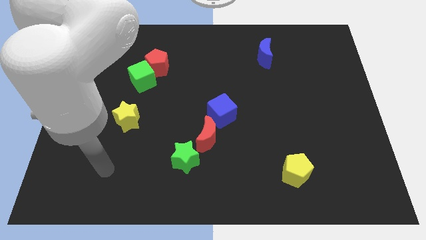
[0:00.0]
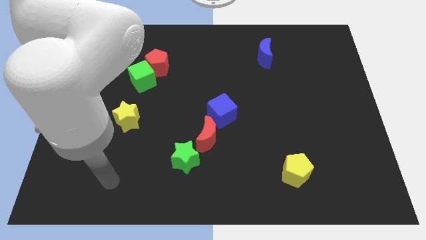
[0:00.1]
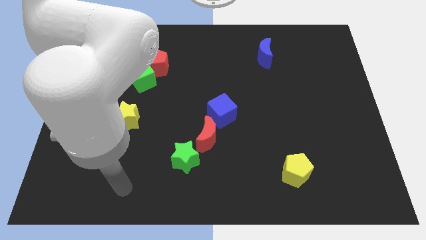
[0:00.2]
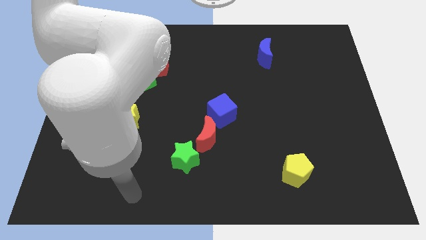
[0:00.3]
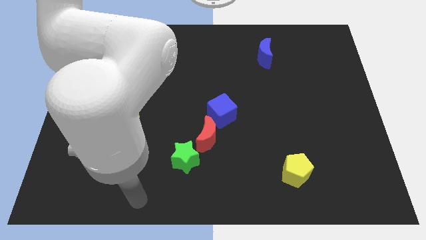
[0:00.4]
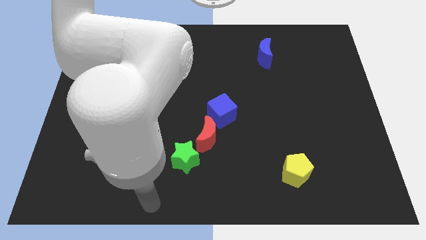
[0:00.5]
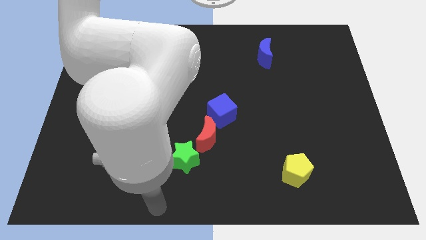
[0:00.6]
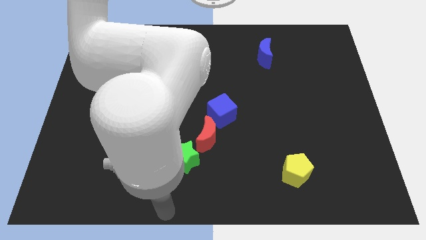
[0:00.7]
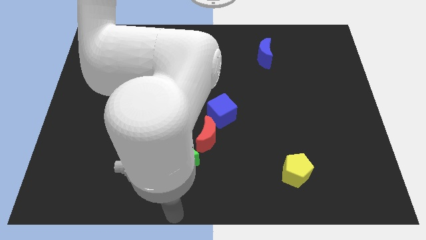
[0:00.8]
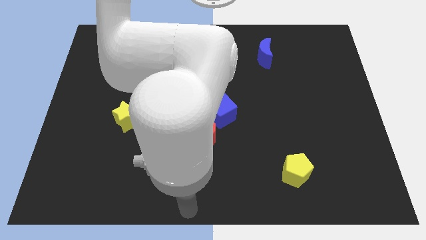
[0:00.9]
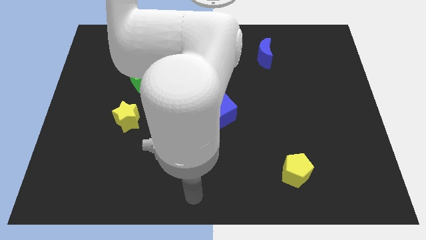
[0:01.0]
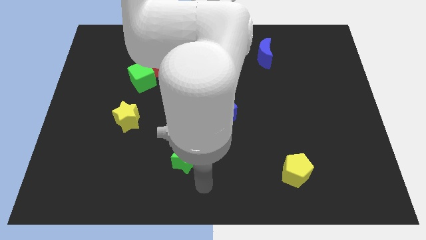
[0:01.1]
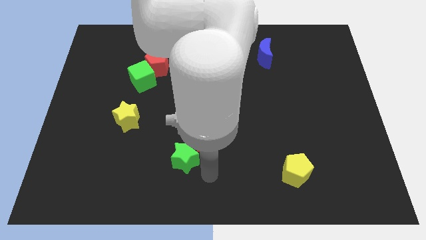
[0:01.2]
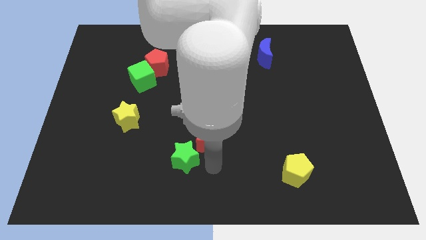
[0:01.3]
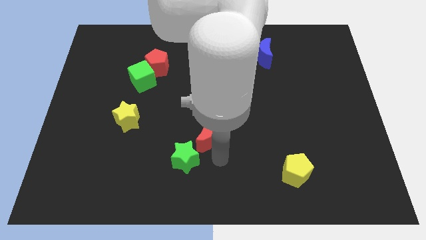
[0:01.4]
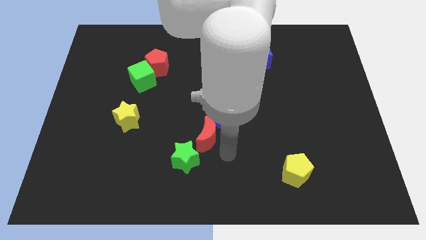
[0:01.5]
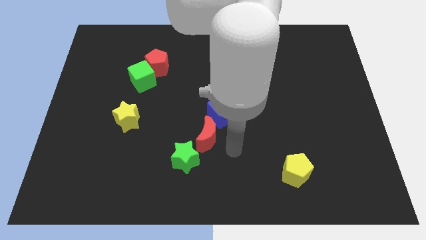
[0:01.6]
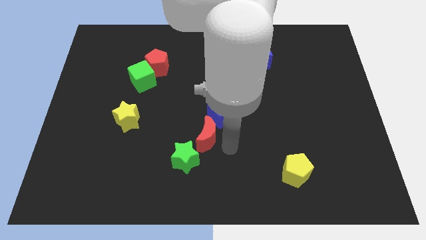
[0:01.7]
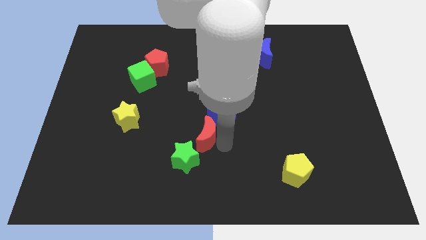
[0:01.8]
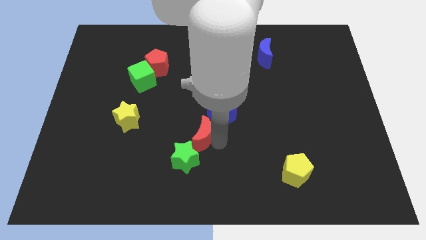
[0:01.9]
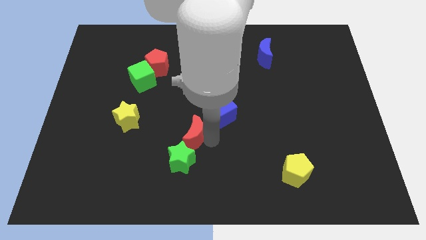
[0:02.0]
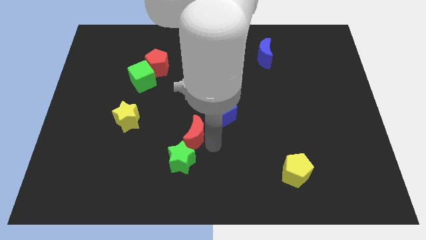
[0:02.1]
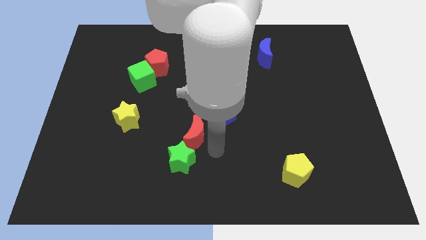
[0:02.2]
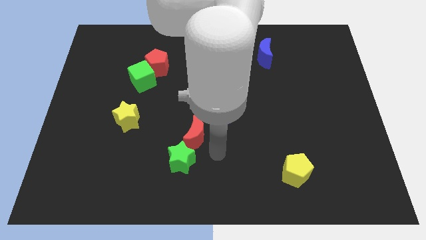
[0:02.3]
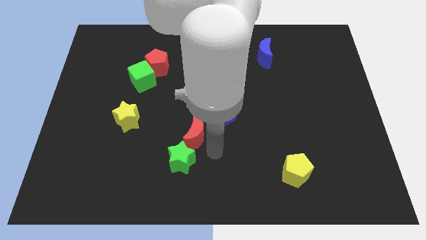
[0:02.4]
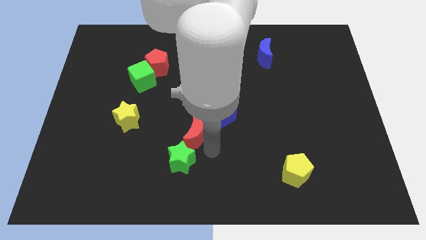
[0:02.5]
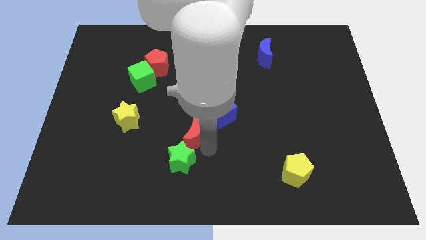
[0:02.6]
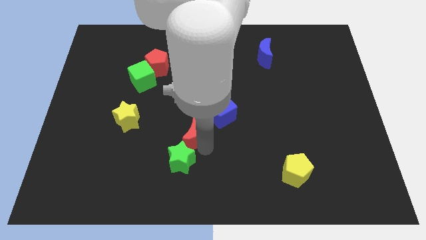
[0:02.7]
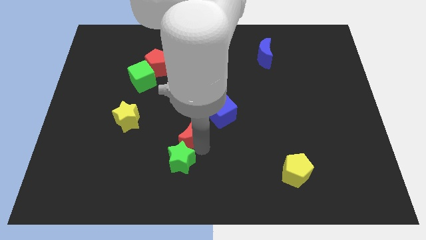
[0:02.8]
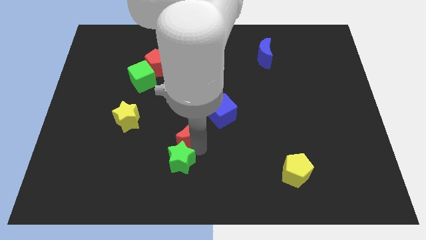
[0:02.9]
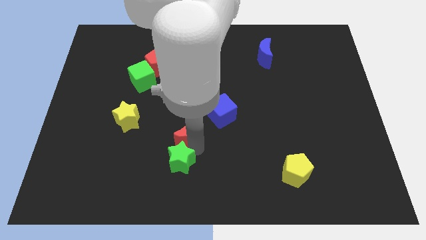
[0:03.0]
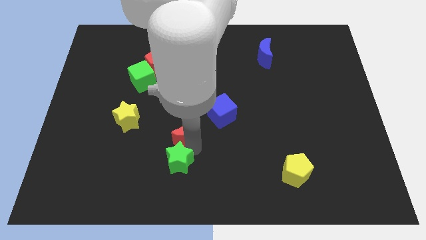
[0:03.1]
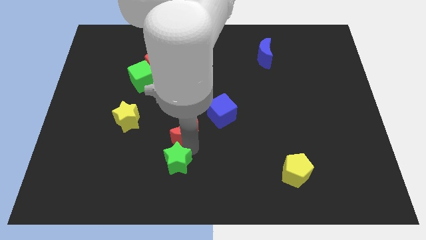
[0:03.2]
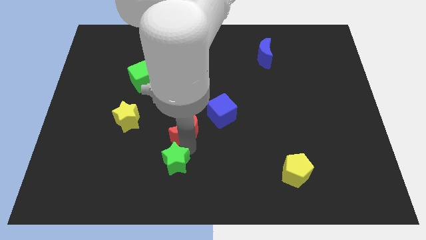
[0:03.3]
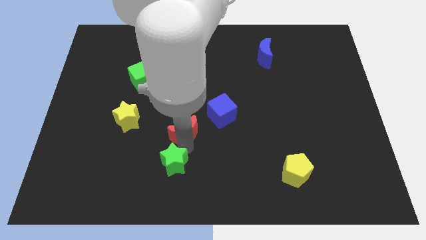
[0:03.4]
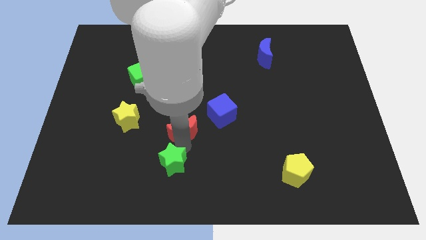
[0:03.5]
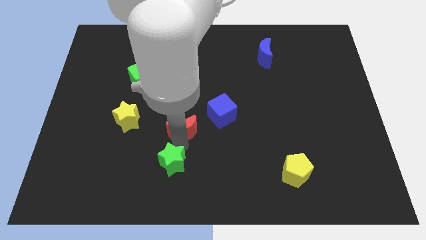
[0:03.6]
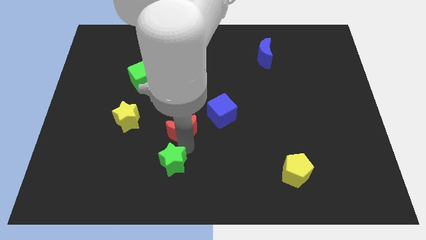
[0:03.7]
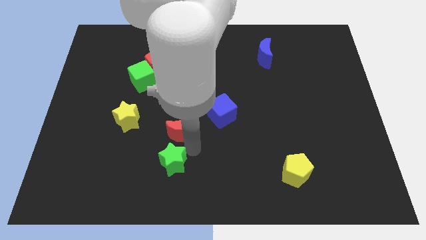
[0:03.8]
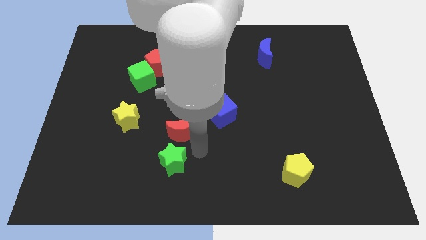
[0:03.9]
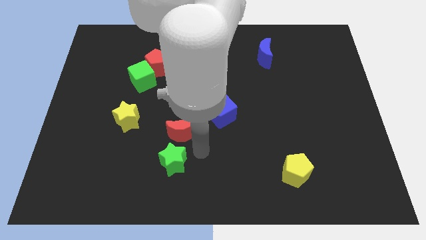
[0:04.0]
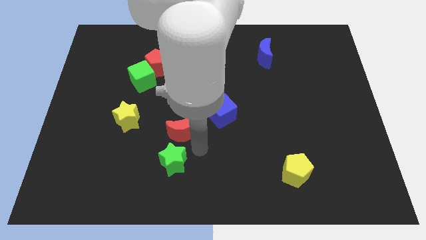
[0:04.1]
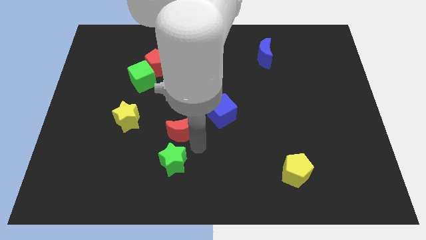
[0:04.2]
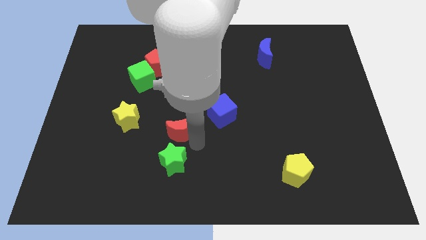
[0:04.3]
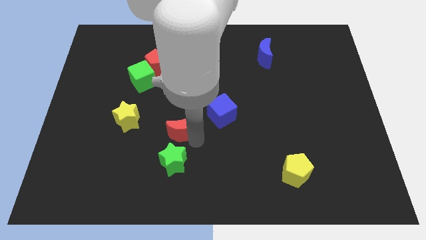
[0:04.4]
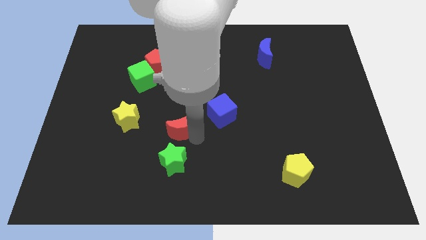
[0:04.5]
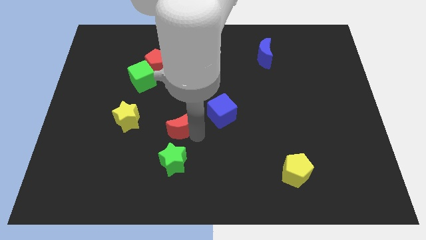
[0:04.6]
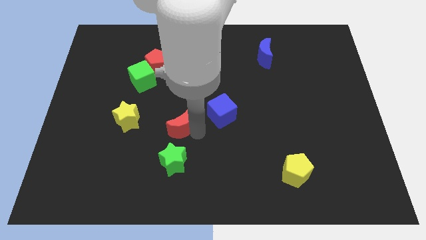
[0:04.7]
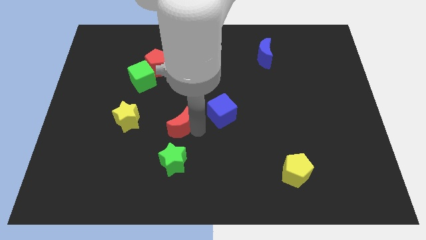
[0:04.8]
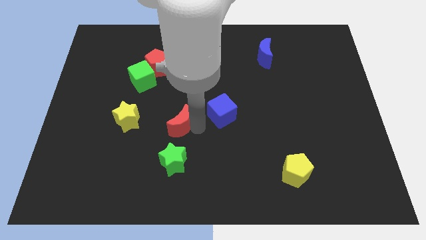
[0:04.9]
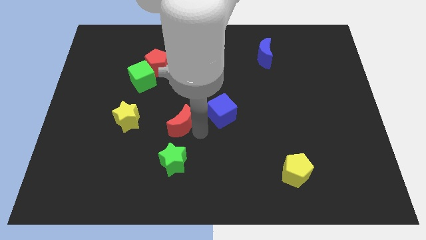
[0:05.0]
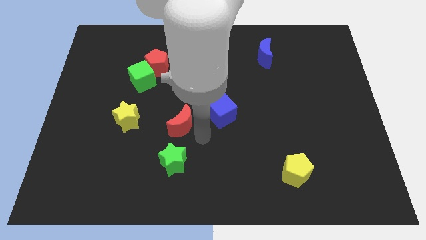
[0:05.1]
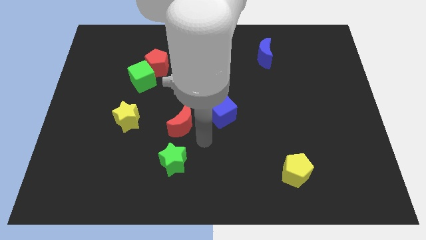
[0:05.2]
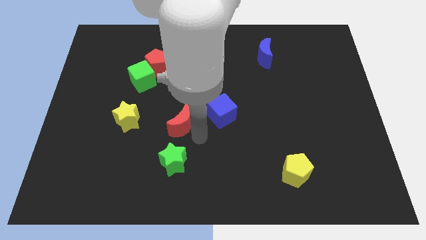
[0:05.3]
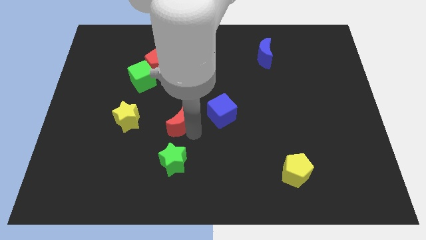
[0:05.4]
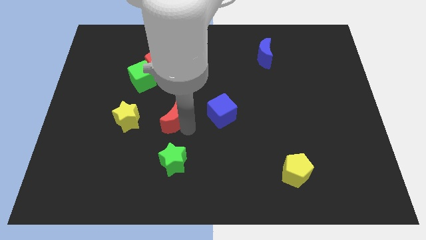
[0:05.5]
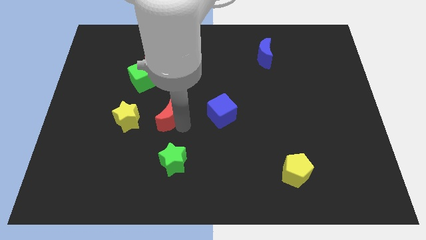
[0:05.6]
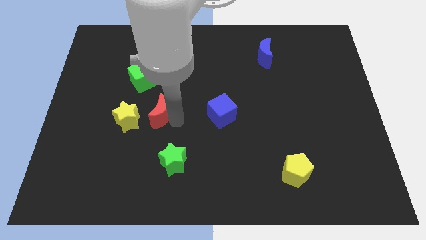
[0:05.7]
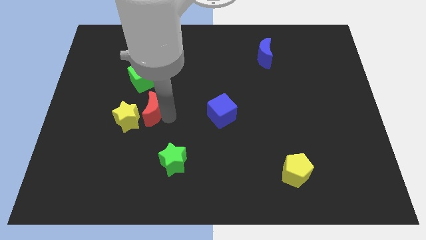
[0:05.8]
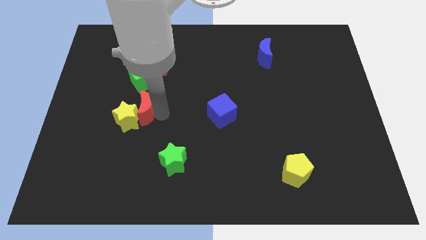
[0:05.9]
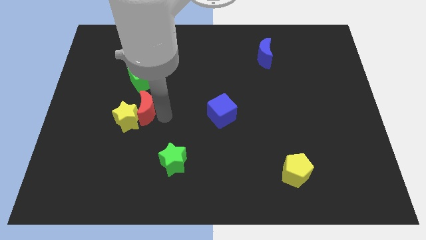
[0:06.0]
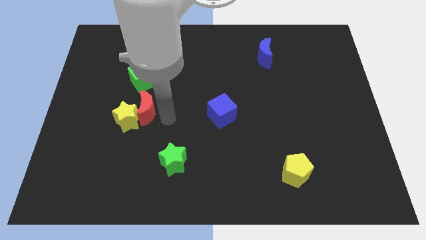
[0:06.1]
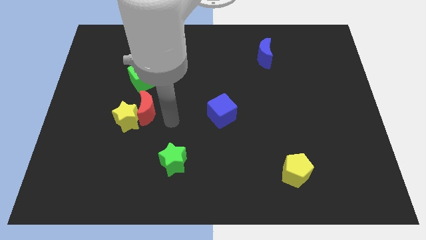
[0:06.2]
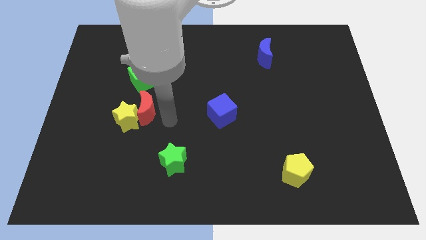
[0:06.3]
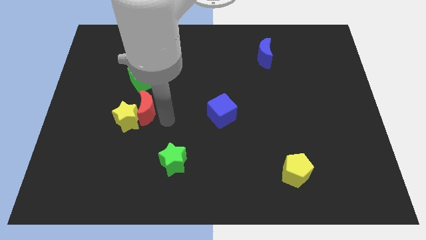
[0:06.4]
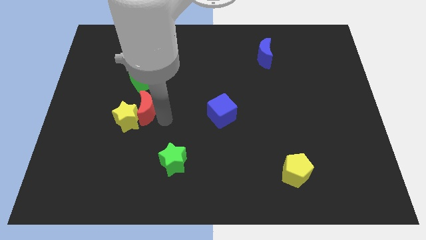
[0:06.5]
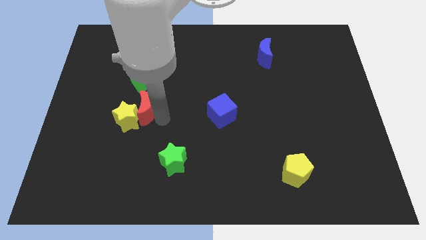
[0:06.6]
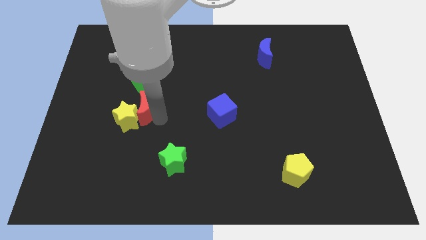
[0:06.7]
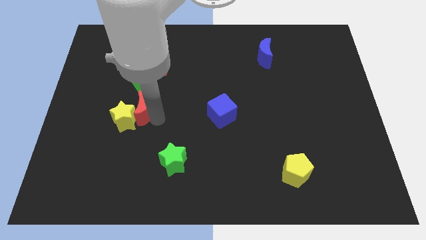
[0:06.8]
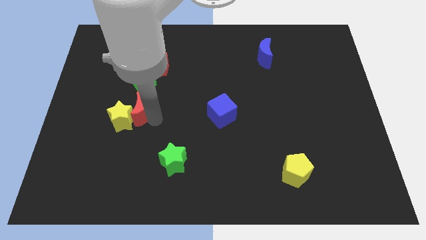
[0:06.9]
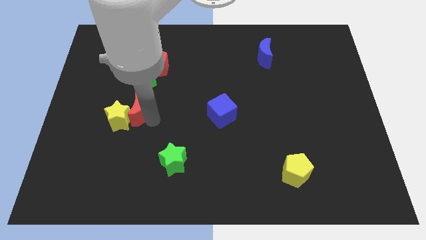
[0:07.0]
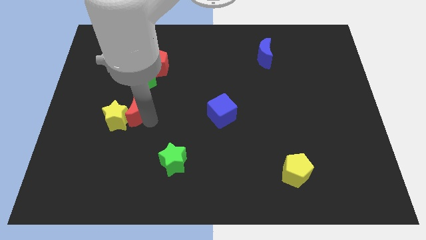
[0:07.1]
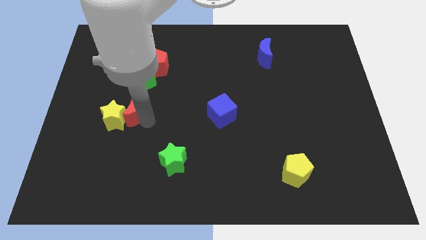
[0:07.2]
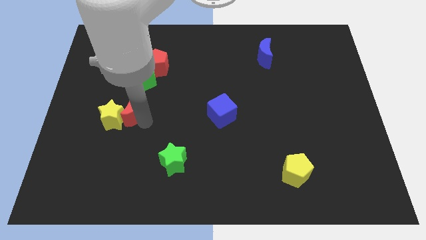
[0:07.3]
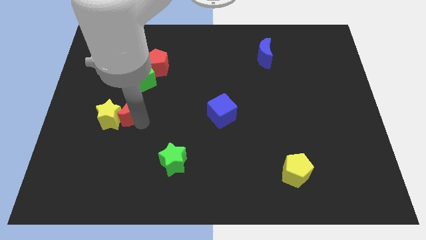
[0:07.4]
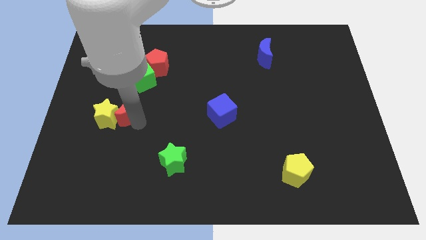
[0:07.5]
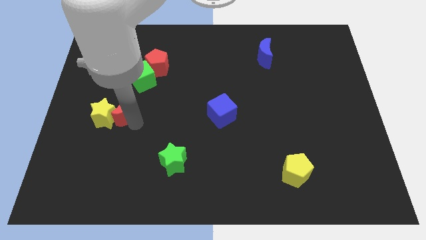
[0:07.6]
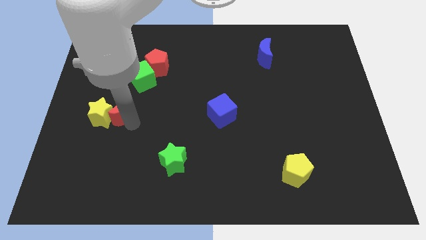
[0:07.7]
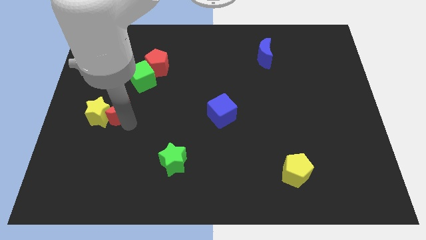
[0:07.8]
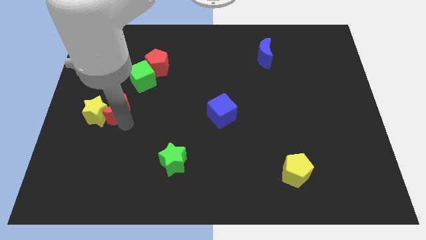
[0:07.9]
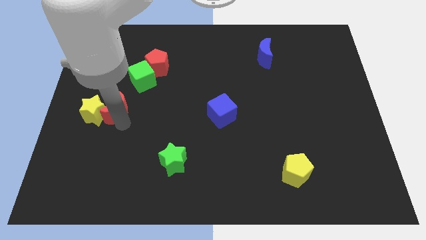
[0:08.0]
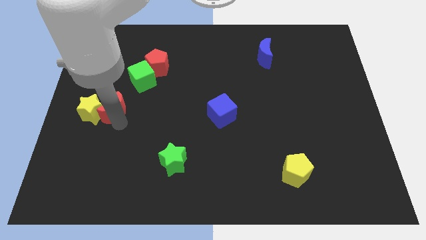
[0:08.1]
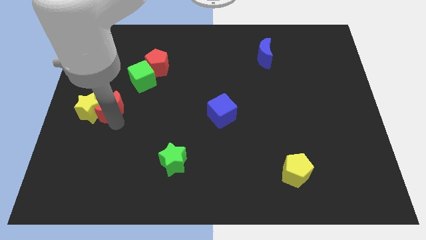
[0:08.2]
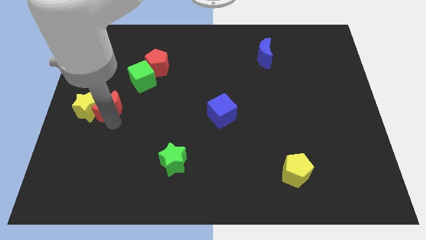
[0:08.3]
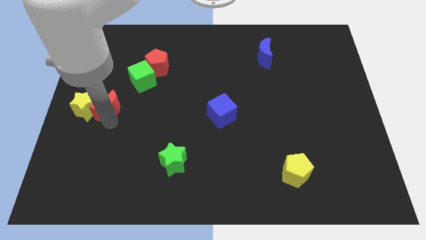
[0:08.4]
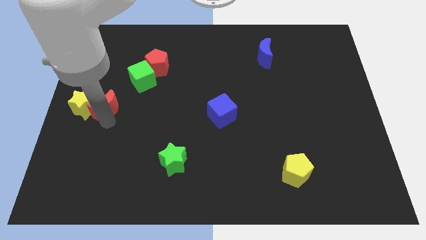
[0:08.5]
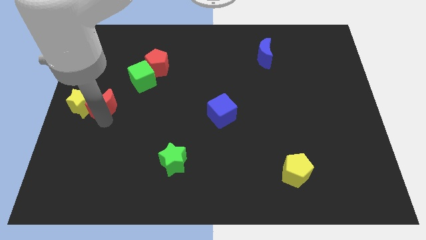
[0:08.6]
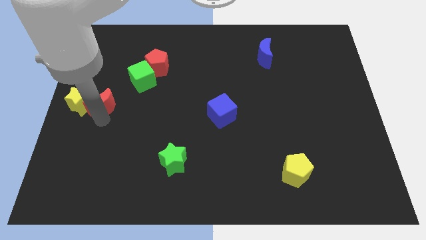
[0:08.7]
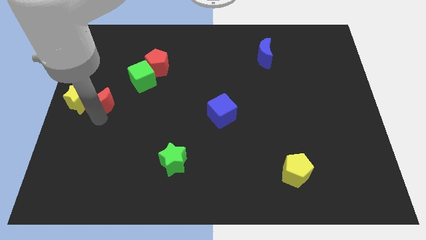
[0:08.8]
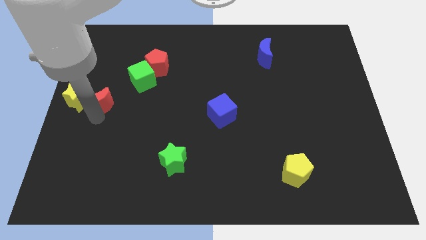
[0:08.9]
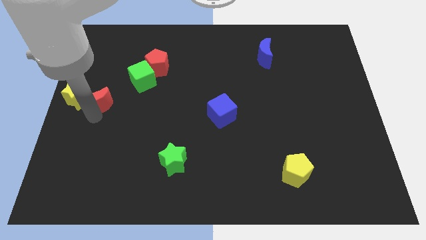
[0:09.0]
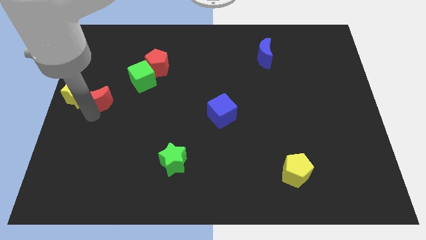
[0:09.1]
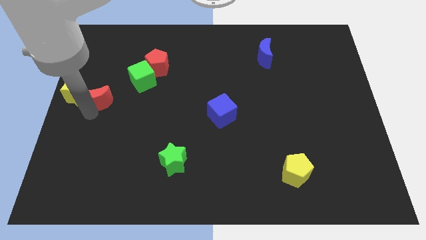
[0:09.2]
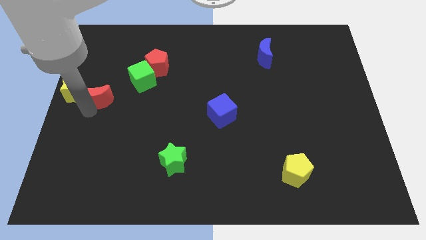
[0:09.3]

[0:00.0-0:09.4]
move the red moon upwards and to the left diagonally
